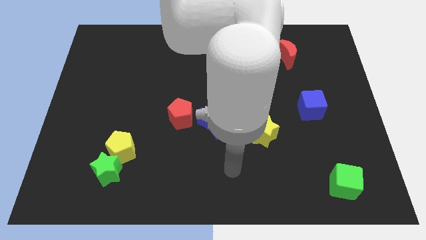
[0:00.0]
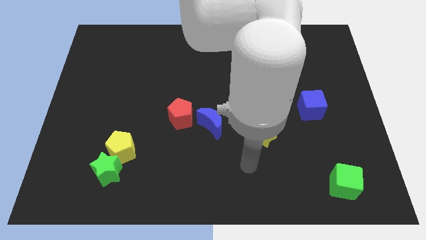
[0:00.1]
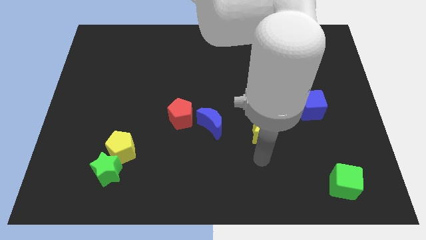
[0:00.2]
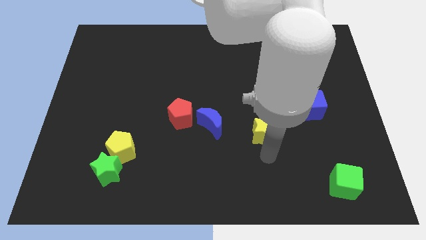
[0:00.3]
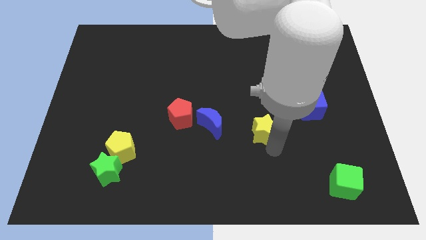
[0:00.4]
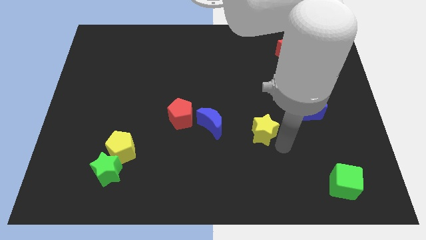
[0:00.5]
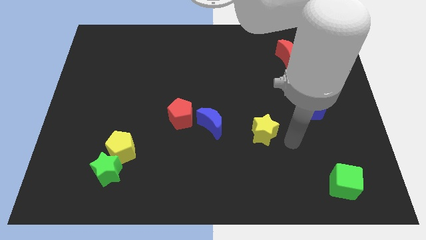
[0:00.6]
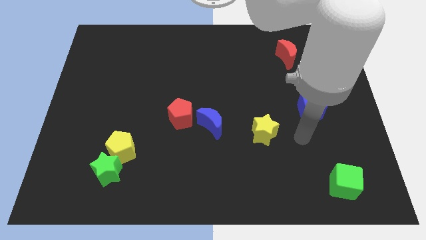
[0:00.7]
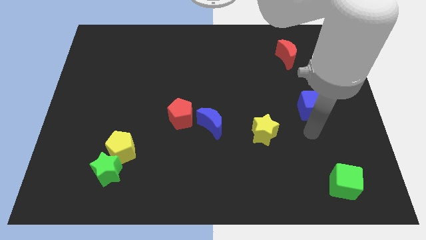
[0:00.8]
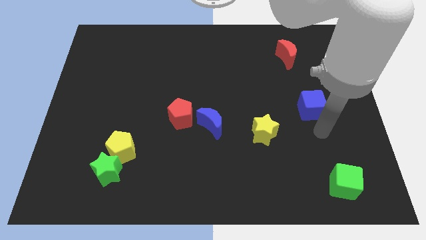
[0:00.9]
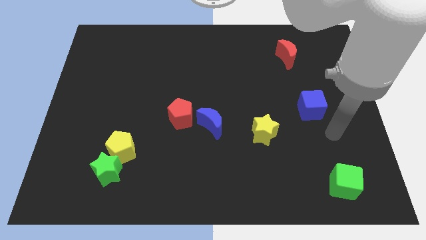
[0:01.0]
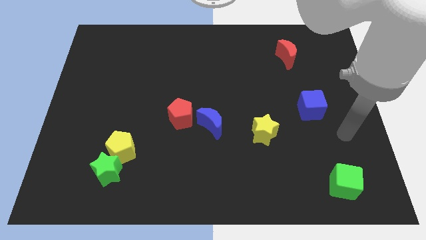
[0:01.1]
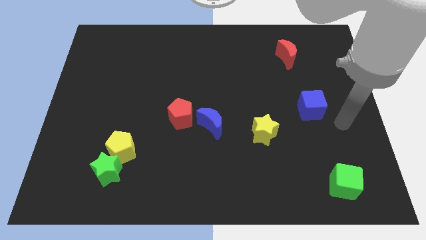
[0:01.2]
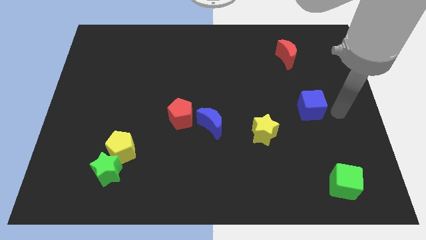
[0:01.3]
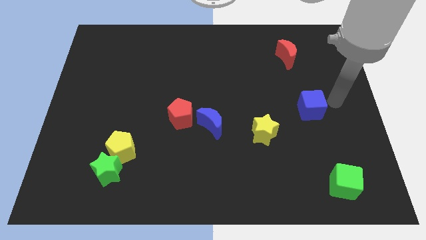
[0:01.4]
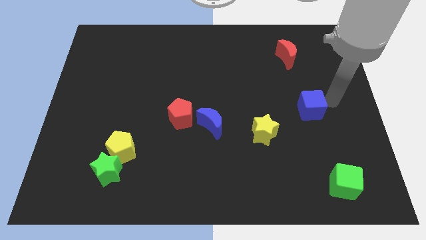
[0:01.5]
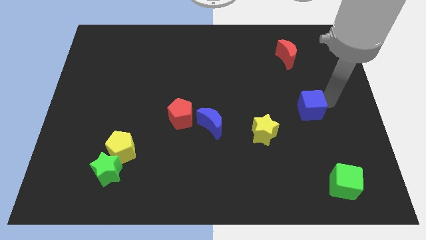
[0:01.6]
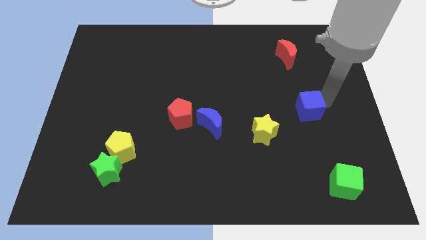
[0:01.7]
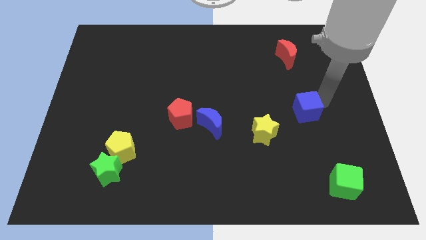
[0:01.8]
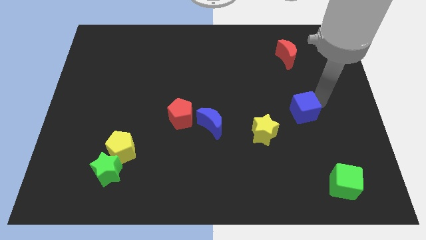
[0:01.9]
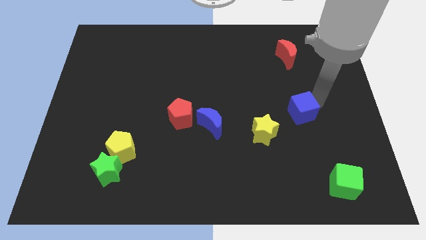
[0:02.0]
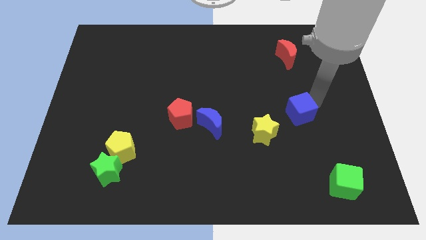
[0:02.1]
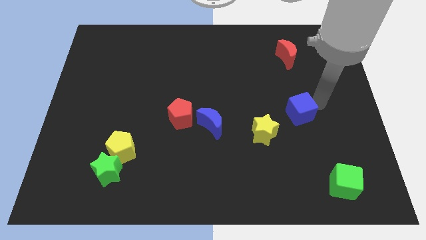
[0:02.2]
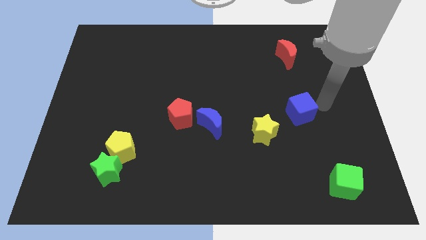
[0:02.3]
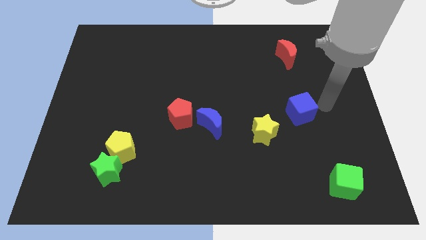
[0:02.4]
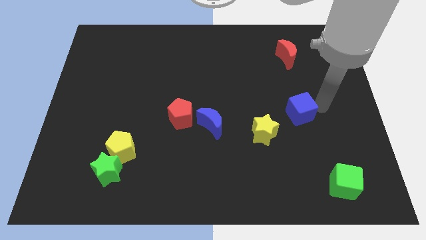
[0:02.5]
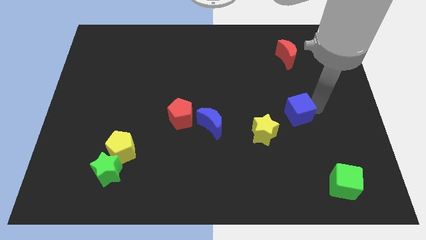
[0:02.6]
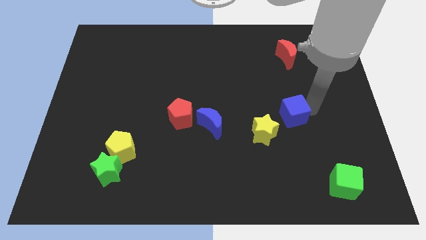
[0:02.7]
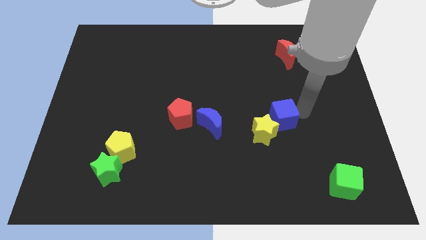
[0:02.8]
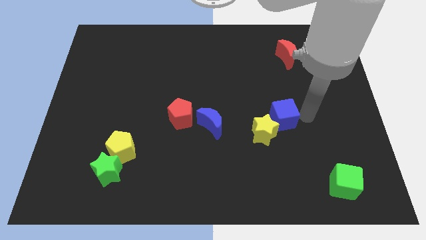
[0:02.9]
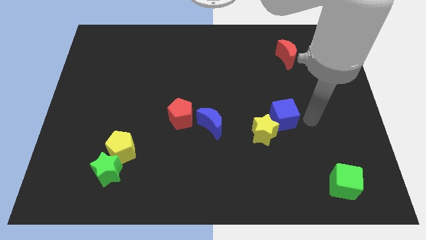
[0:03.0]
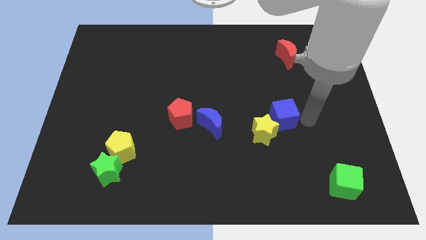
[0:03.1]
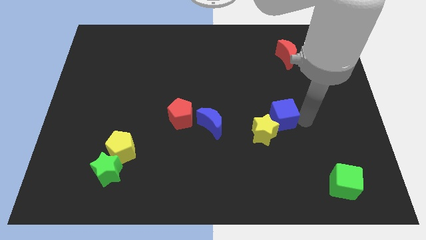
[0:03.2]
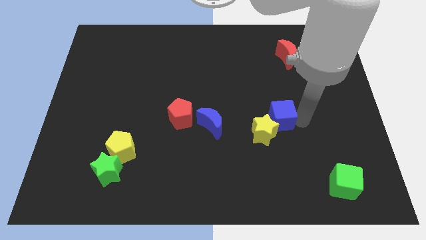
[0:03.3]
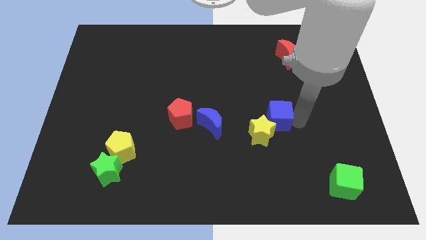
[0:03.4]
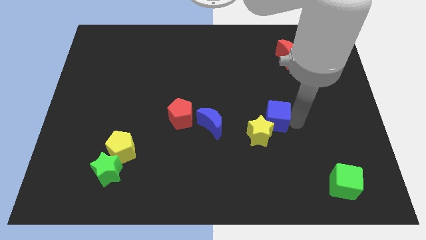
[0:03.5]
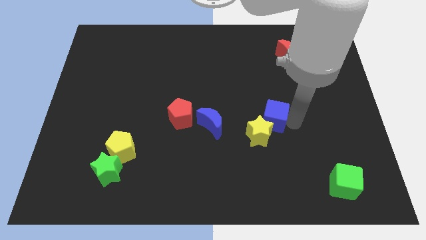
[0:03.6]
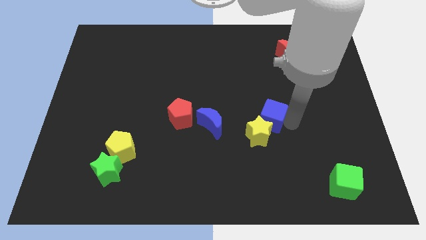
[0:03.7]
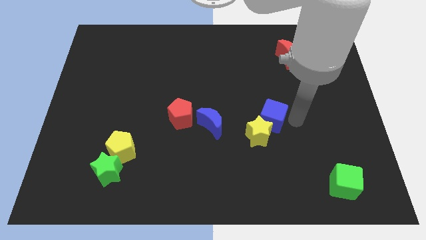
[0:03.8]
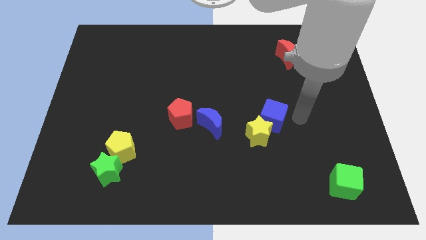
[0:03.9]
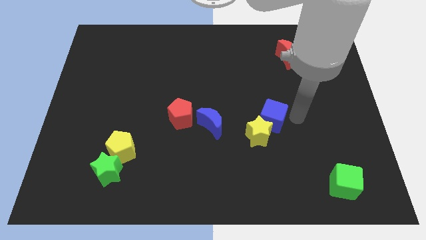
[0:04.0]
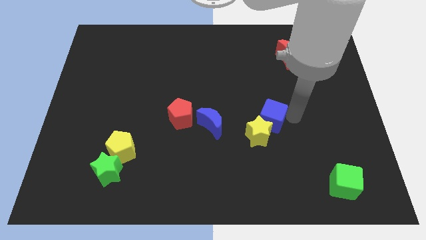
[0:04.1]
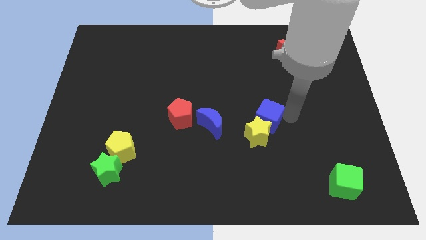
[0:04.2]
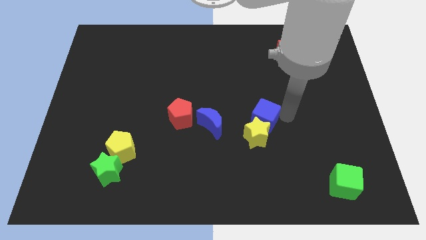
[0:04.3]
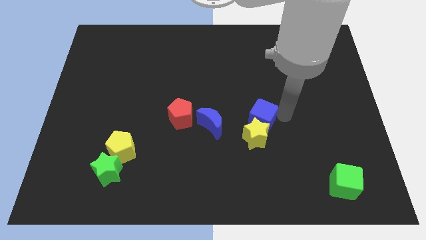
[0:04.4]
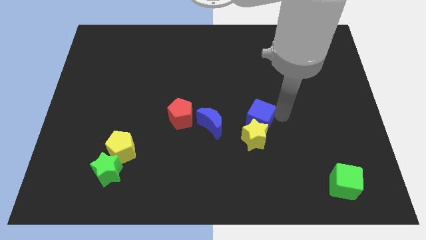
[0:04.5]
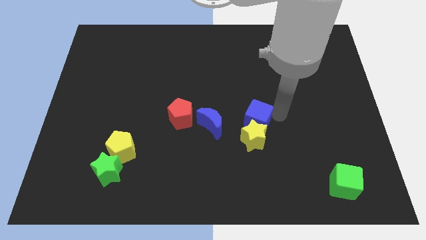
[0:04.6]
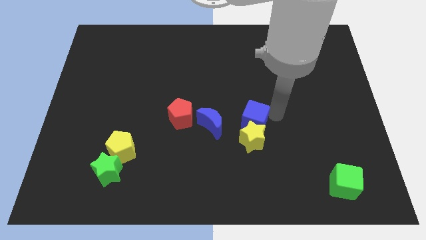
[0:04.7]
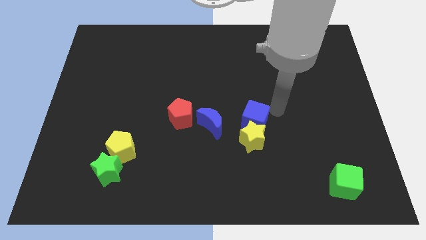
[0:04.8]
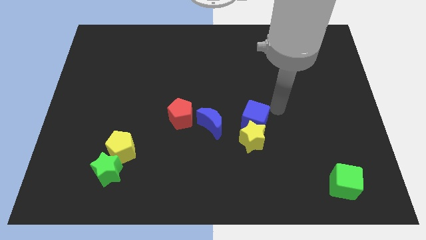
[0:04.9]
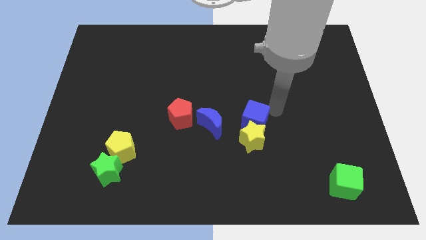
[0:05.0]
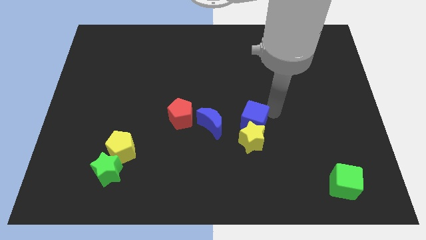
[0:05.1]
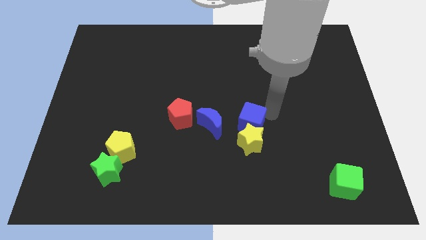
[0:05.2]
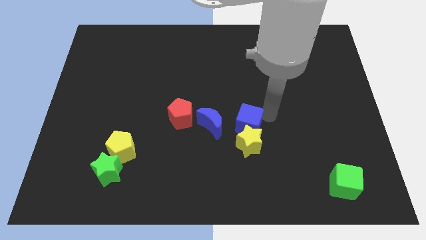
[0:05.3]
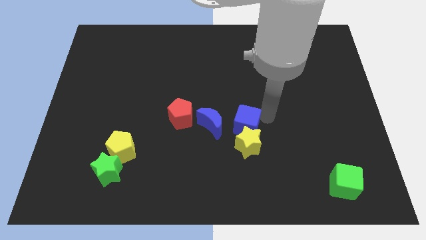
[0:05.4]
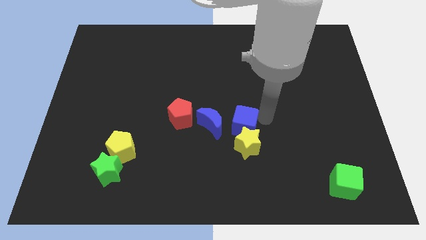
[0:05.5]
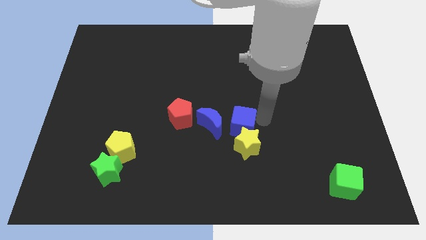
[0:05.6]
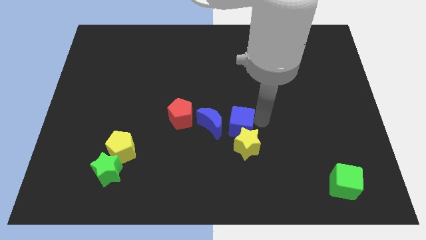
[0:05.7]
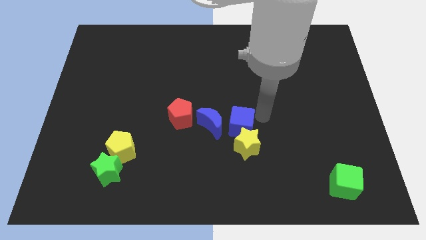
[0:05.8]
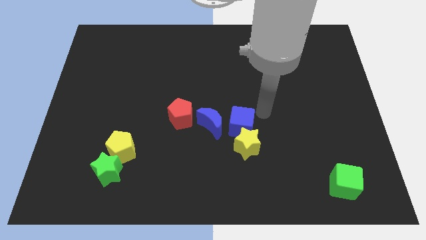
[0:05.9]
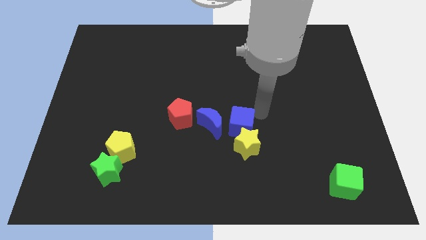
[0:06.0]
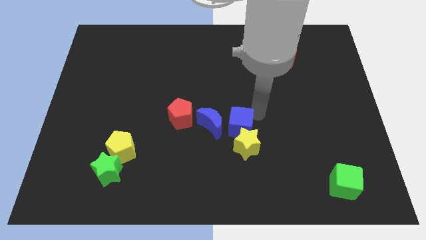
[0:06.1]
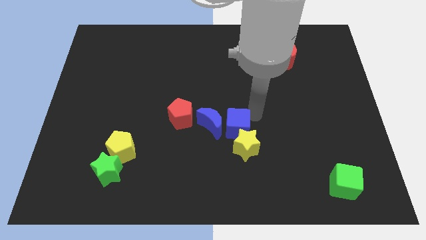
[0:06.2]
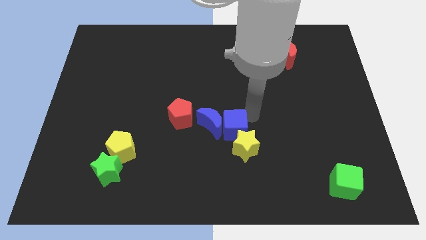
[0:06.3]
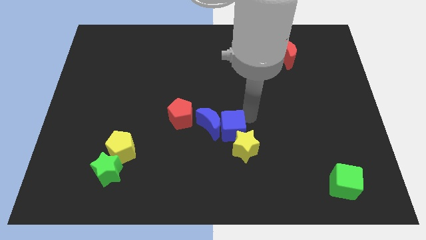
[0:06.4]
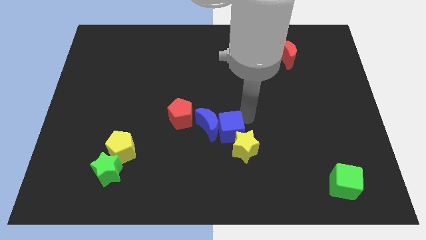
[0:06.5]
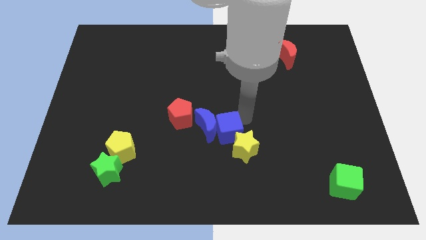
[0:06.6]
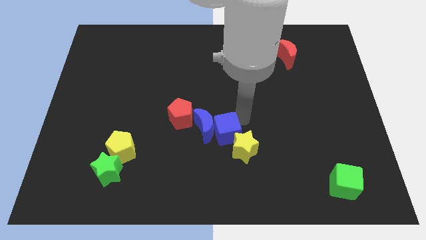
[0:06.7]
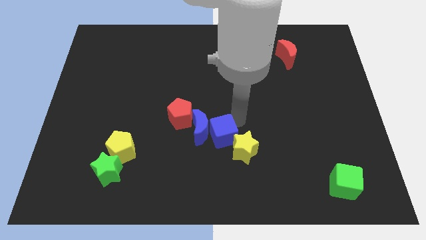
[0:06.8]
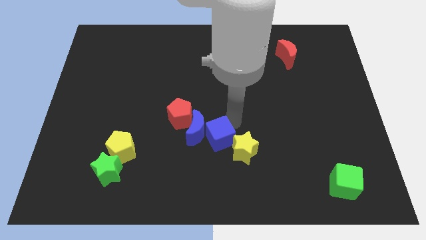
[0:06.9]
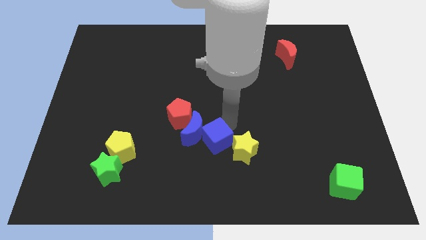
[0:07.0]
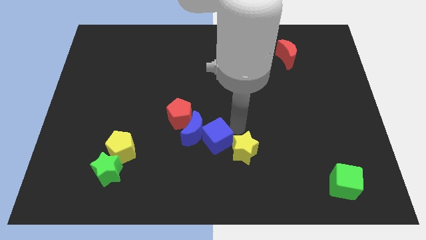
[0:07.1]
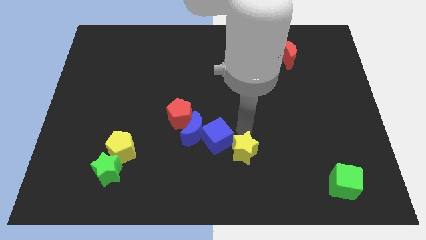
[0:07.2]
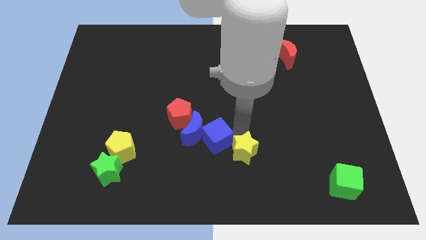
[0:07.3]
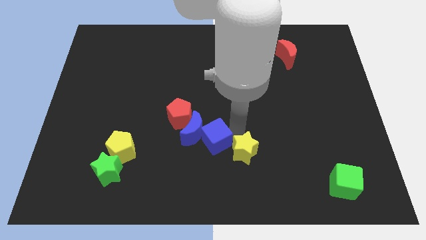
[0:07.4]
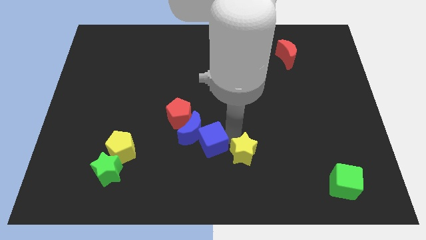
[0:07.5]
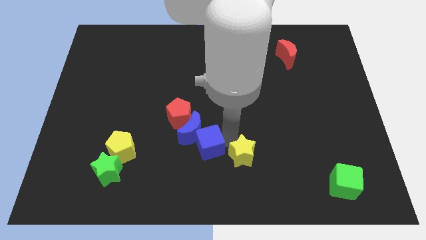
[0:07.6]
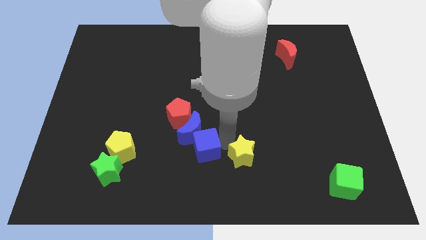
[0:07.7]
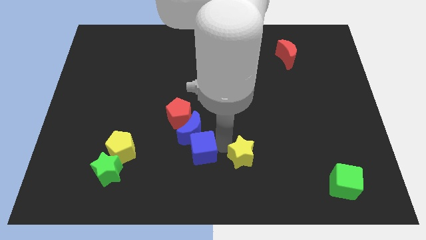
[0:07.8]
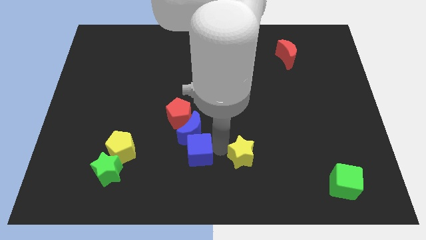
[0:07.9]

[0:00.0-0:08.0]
put the blue cube to the bottom left side of the blue moon
